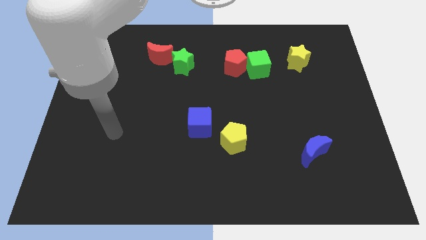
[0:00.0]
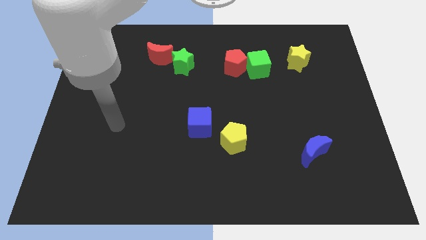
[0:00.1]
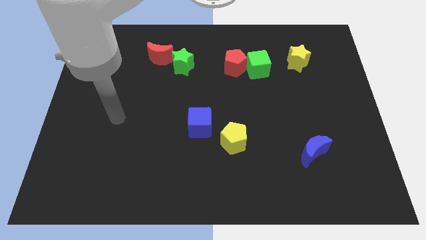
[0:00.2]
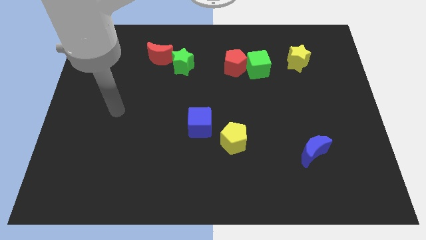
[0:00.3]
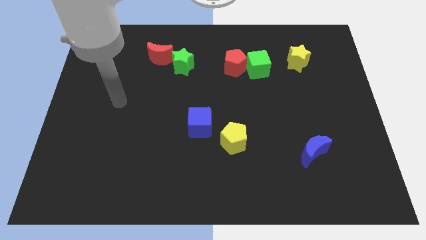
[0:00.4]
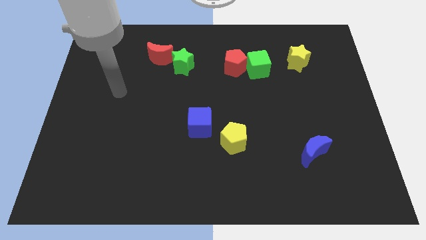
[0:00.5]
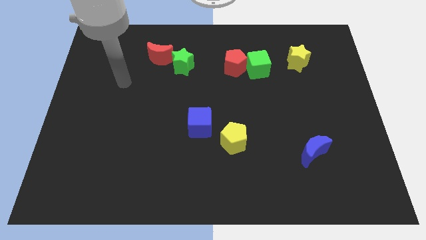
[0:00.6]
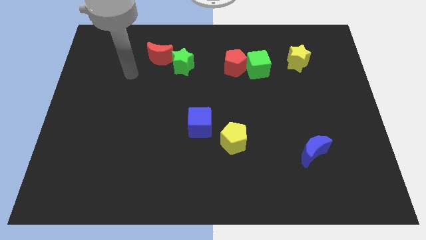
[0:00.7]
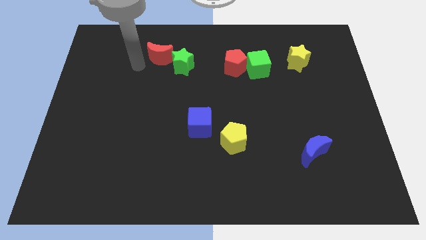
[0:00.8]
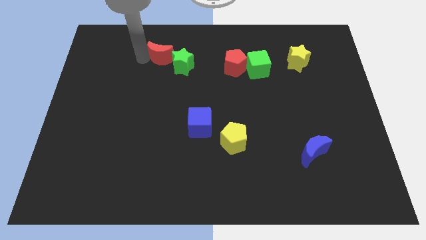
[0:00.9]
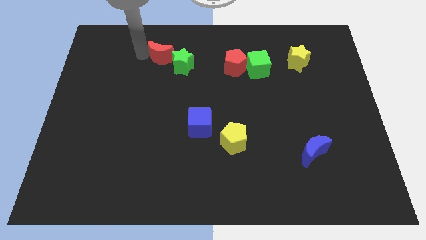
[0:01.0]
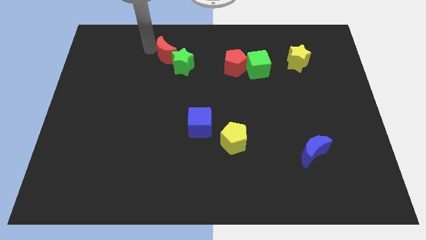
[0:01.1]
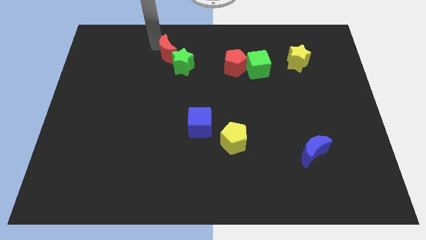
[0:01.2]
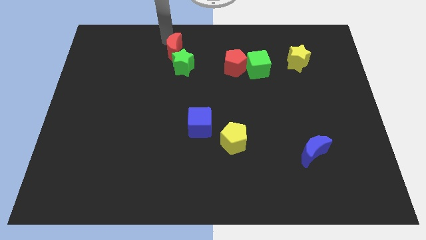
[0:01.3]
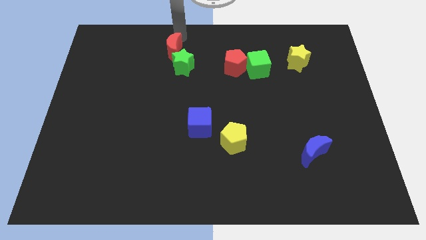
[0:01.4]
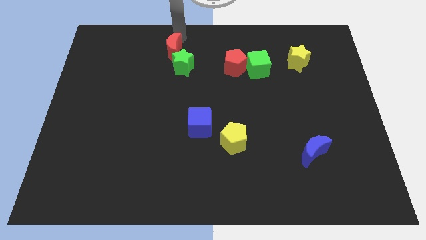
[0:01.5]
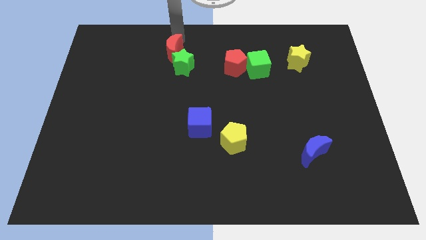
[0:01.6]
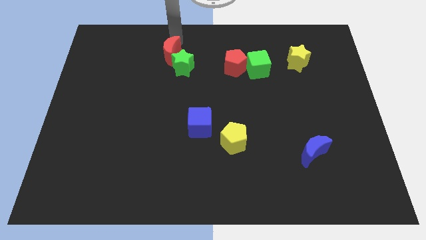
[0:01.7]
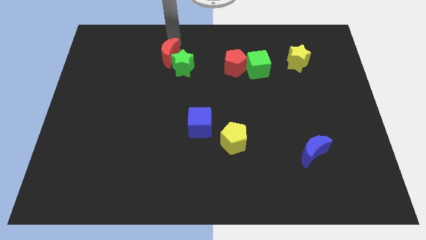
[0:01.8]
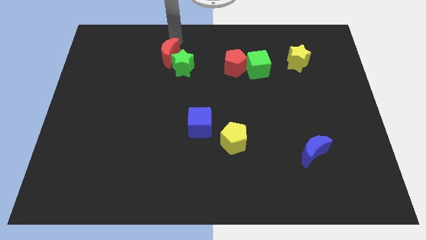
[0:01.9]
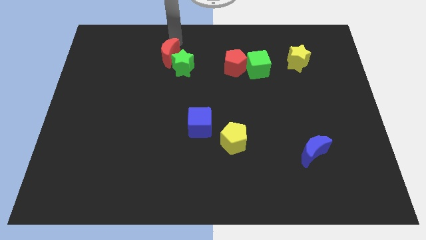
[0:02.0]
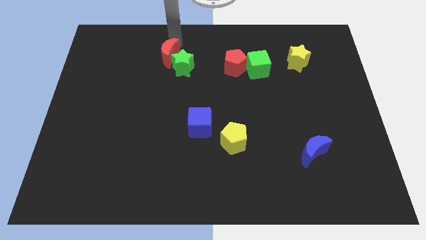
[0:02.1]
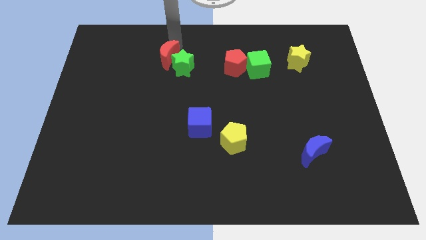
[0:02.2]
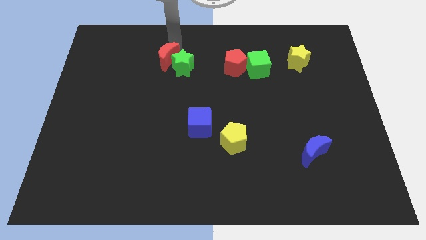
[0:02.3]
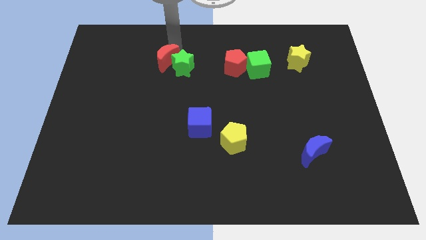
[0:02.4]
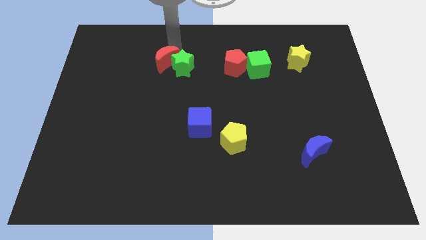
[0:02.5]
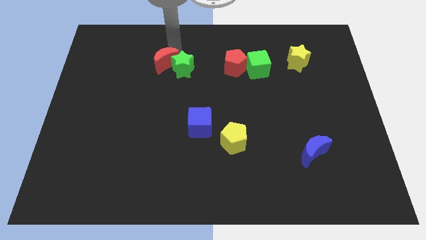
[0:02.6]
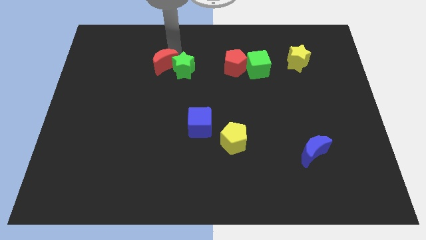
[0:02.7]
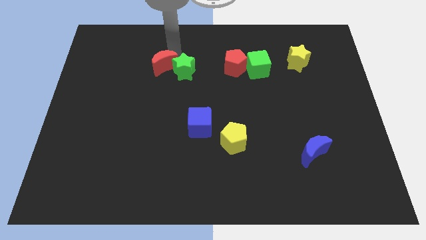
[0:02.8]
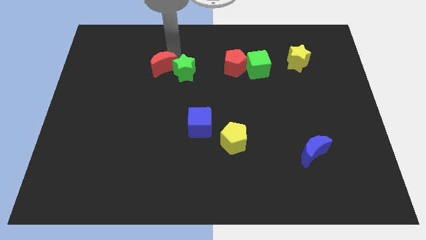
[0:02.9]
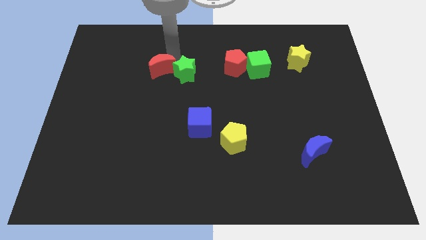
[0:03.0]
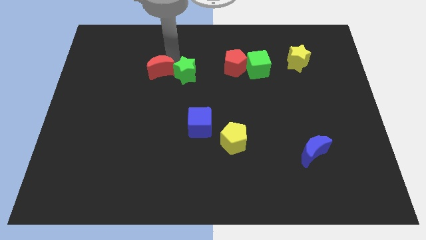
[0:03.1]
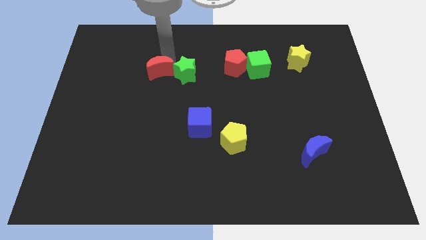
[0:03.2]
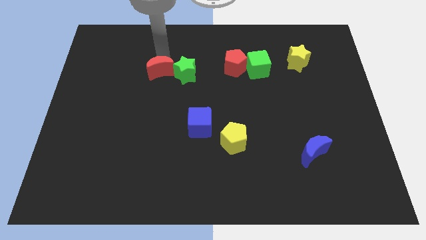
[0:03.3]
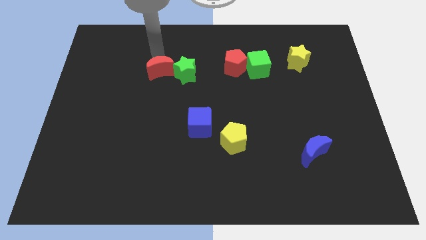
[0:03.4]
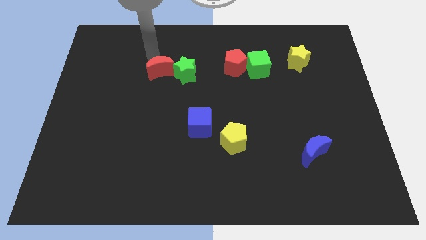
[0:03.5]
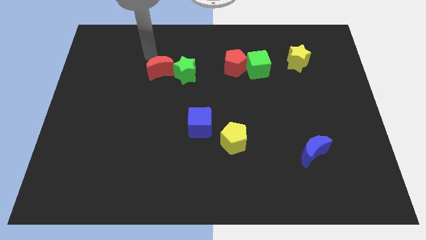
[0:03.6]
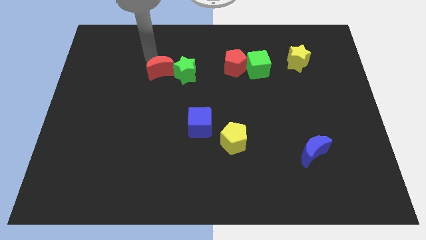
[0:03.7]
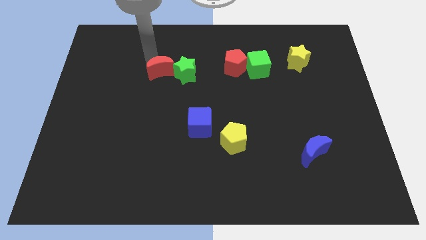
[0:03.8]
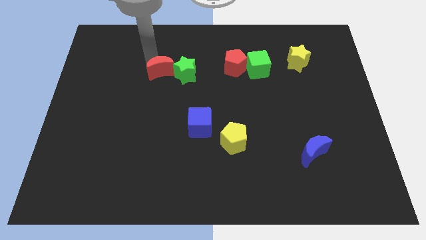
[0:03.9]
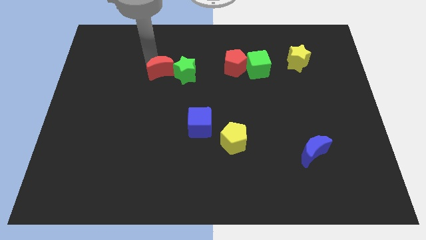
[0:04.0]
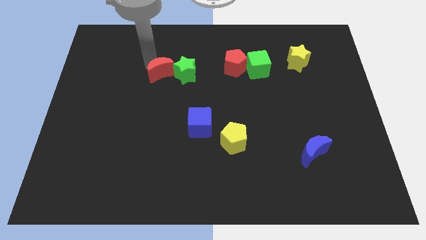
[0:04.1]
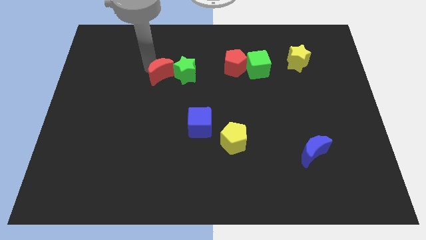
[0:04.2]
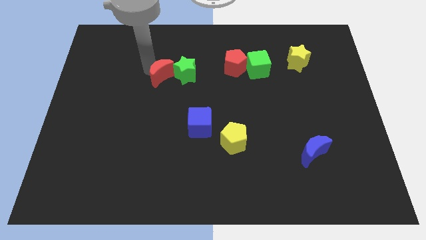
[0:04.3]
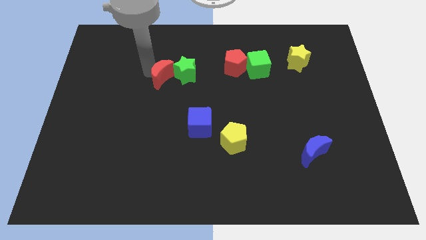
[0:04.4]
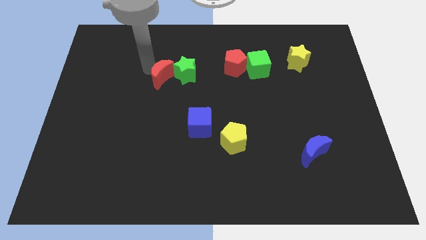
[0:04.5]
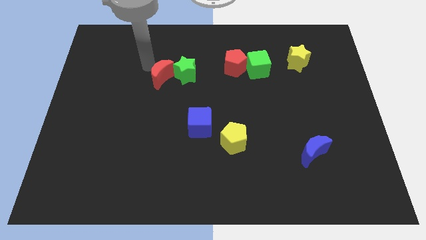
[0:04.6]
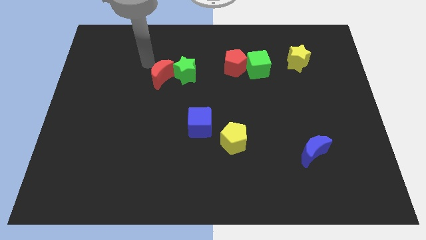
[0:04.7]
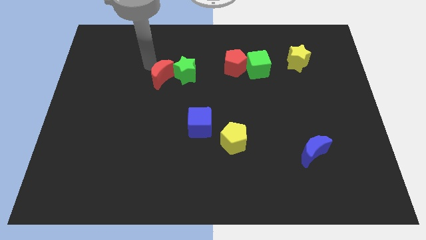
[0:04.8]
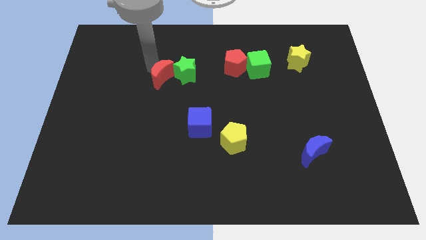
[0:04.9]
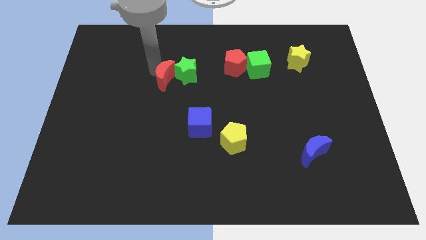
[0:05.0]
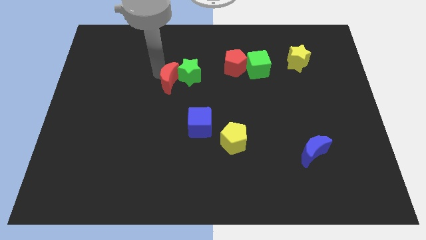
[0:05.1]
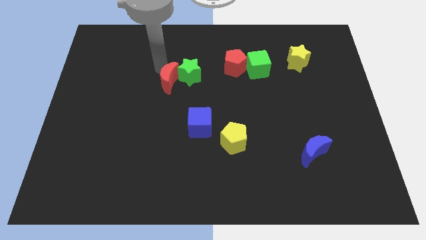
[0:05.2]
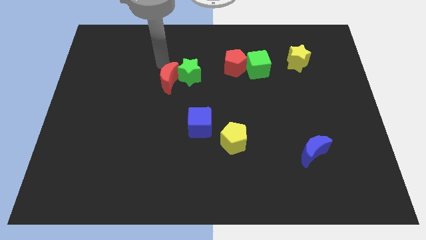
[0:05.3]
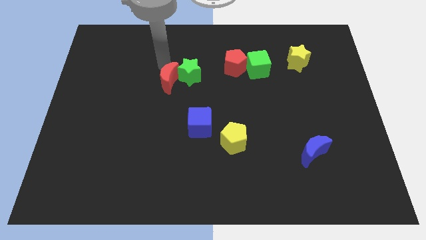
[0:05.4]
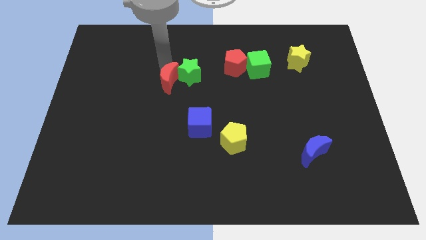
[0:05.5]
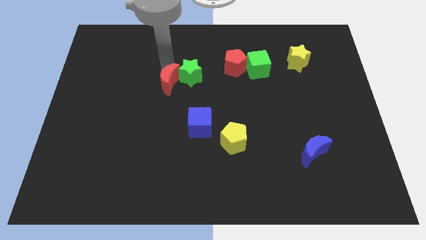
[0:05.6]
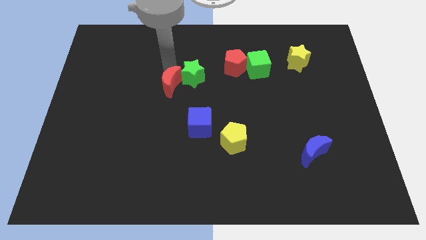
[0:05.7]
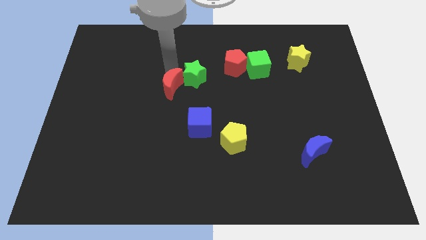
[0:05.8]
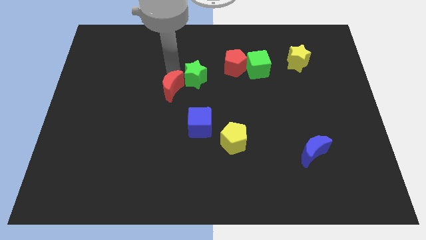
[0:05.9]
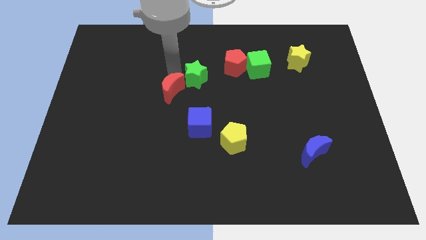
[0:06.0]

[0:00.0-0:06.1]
move the red moon diagonally up and to the left of the blue cube

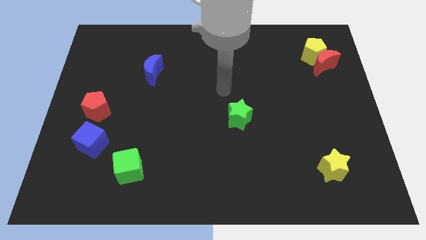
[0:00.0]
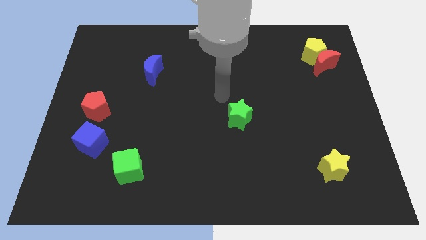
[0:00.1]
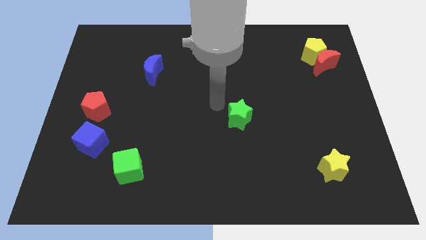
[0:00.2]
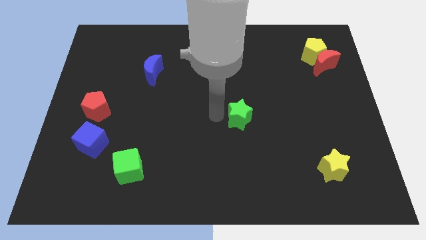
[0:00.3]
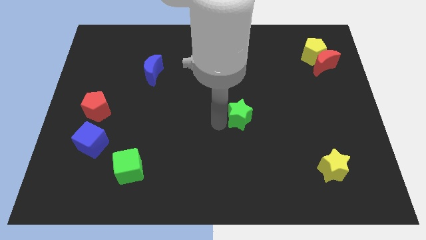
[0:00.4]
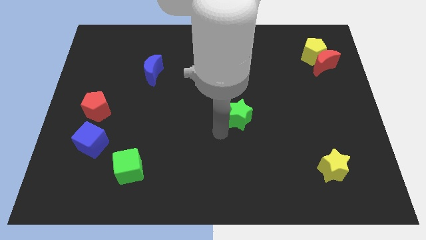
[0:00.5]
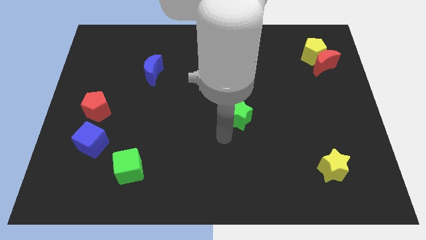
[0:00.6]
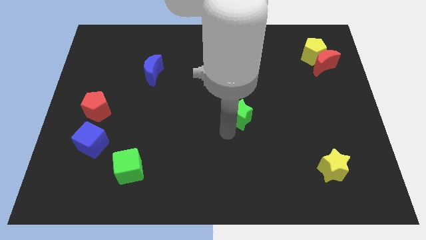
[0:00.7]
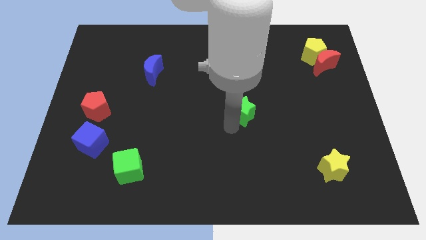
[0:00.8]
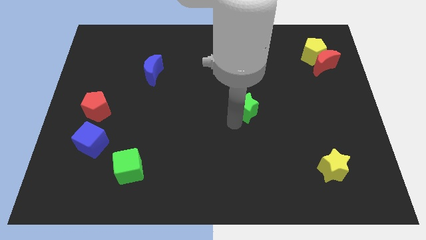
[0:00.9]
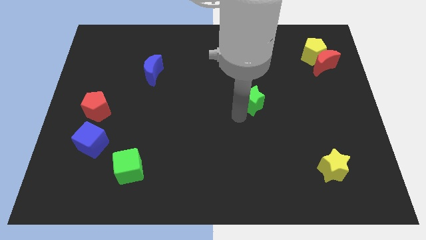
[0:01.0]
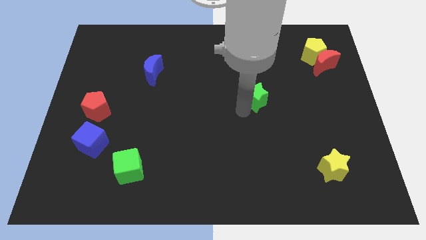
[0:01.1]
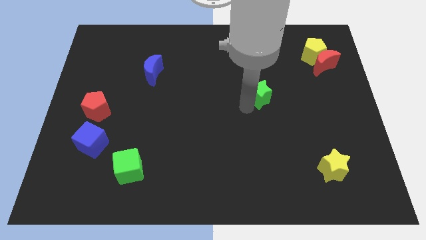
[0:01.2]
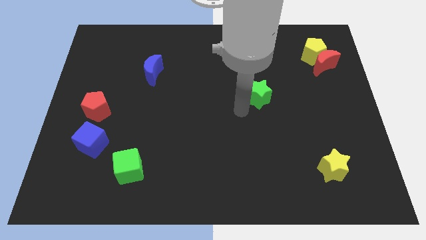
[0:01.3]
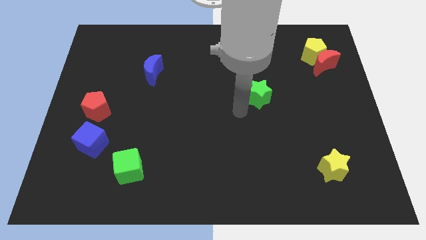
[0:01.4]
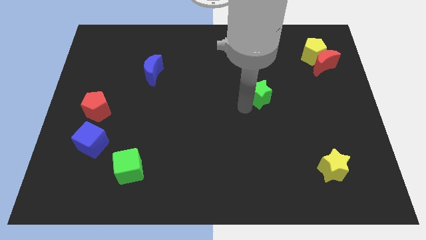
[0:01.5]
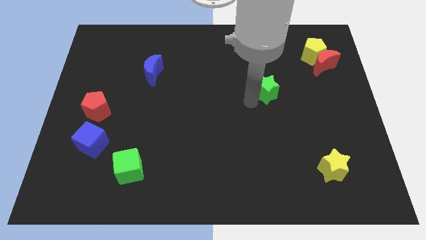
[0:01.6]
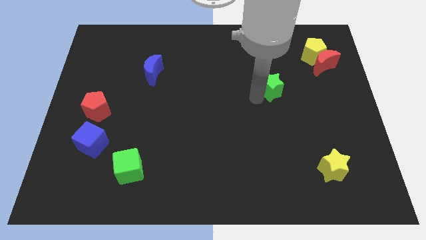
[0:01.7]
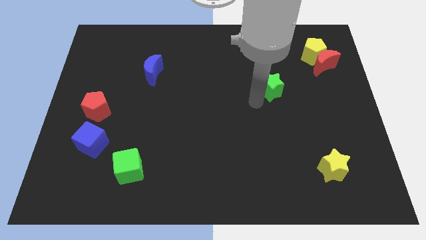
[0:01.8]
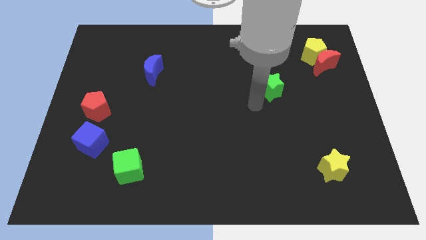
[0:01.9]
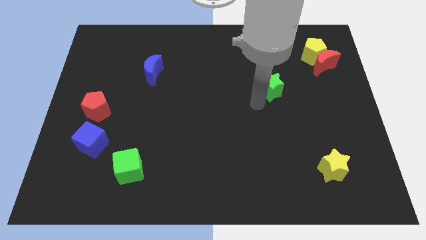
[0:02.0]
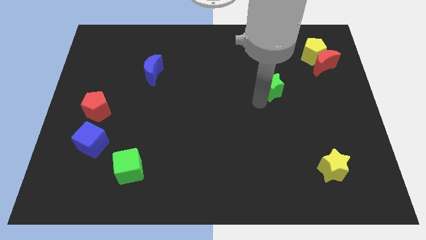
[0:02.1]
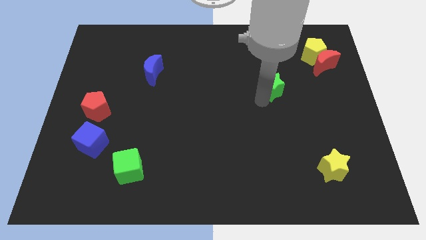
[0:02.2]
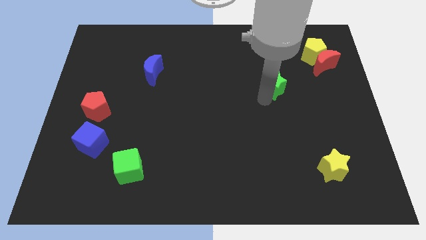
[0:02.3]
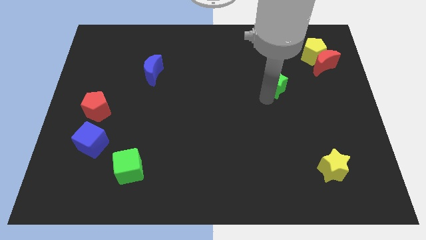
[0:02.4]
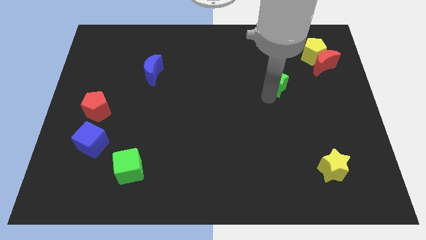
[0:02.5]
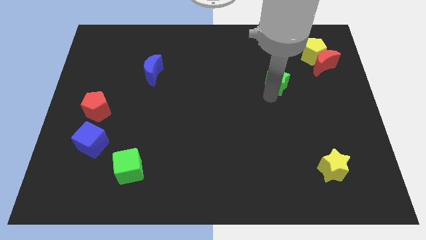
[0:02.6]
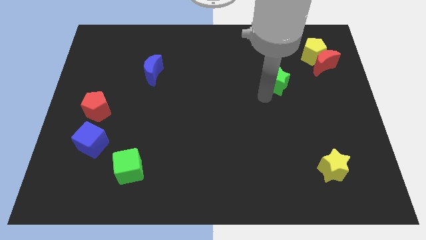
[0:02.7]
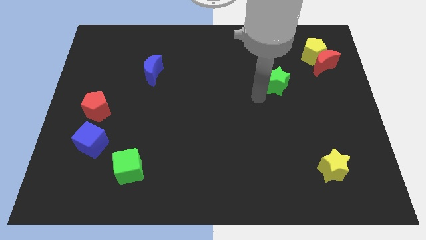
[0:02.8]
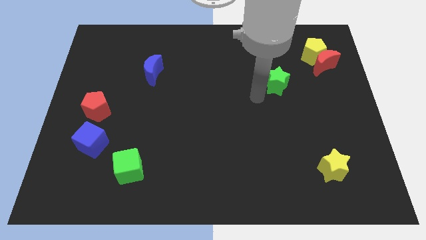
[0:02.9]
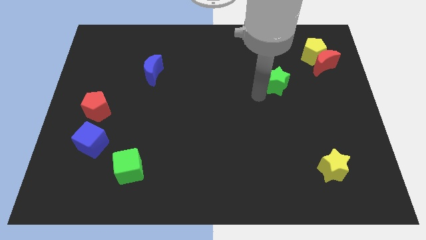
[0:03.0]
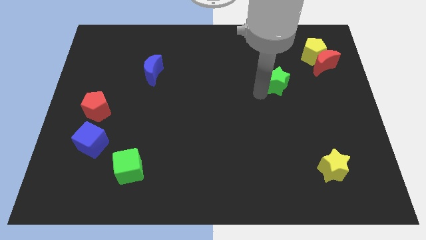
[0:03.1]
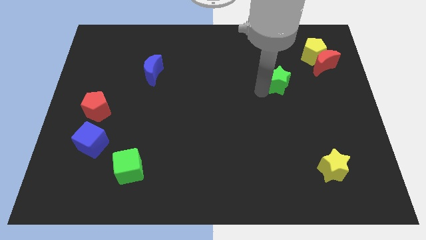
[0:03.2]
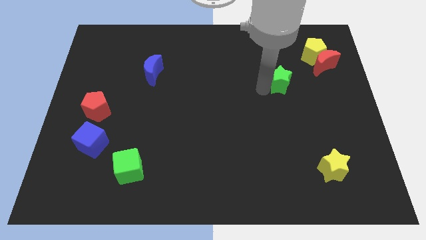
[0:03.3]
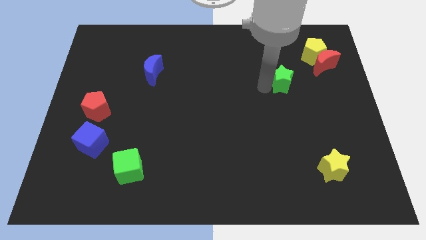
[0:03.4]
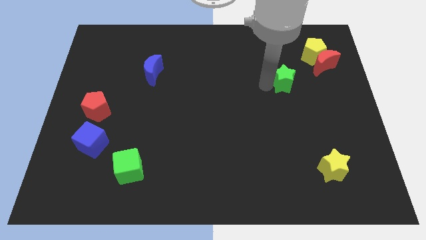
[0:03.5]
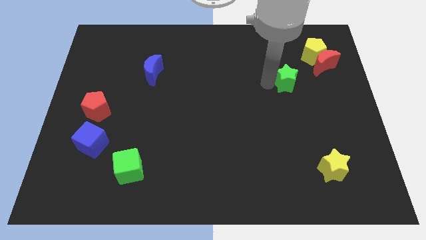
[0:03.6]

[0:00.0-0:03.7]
push the green star to the bottom left of the yellow pentagon
